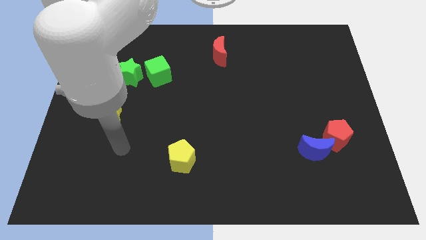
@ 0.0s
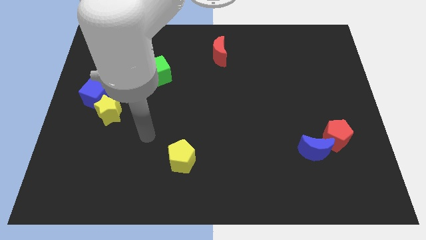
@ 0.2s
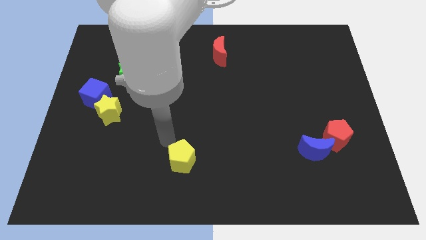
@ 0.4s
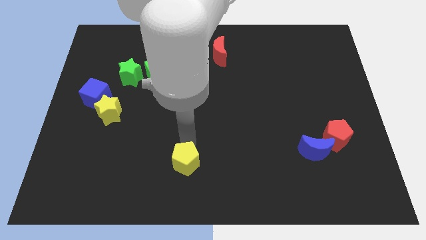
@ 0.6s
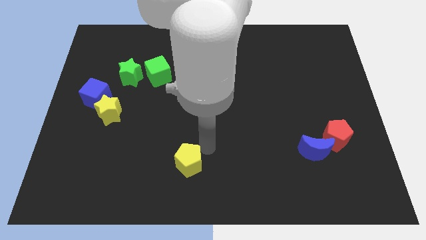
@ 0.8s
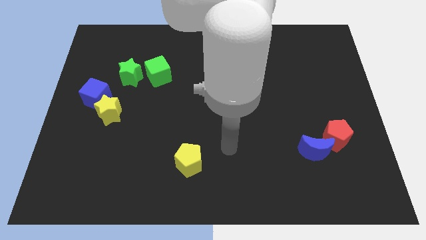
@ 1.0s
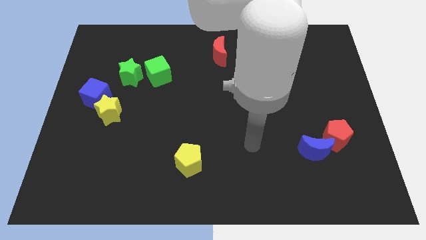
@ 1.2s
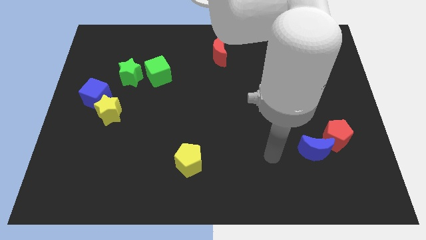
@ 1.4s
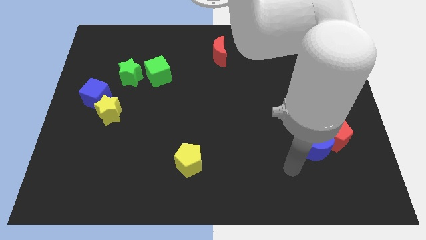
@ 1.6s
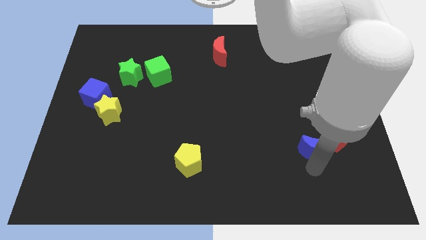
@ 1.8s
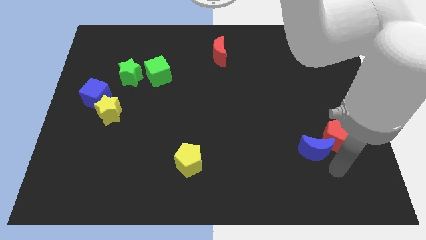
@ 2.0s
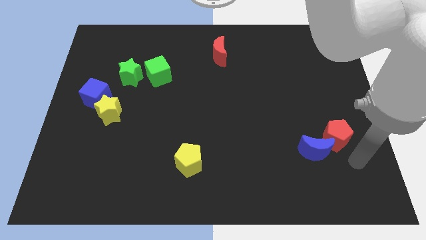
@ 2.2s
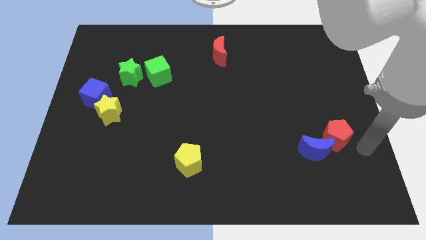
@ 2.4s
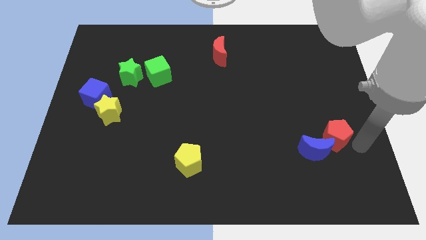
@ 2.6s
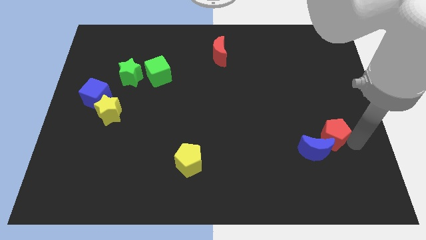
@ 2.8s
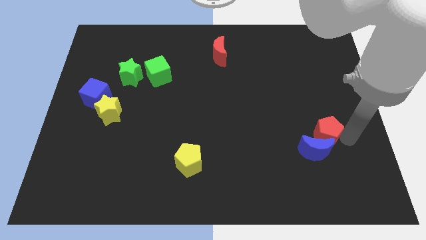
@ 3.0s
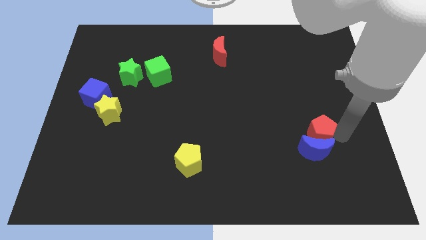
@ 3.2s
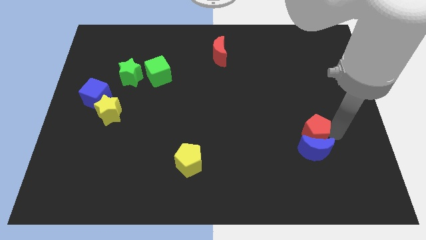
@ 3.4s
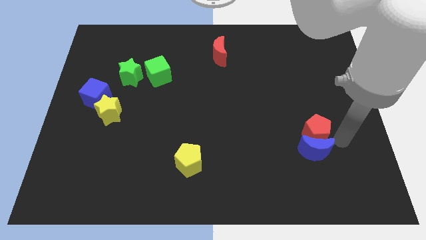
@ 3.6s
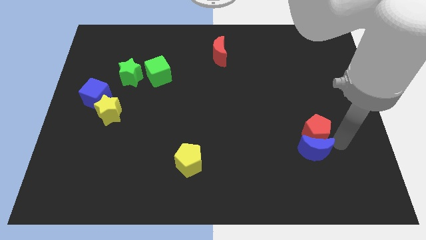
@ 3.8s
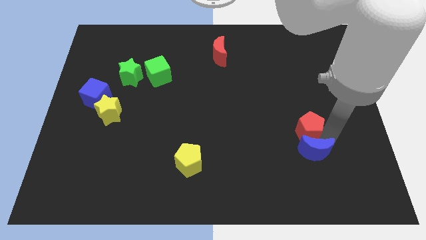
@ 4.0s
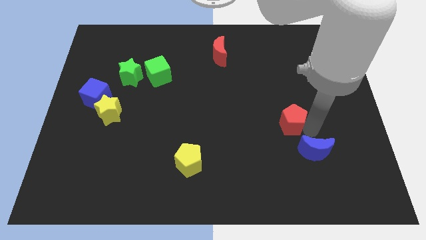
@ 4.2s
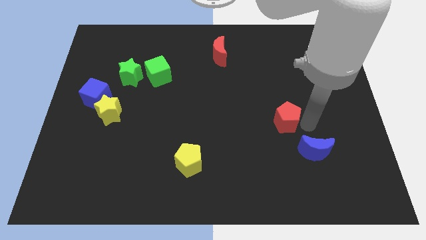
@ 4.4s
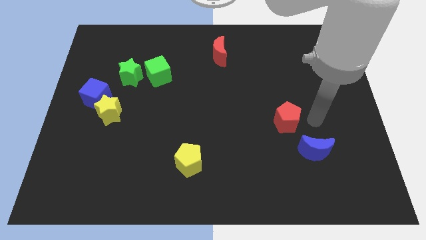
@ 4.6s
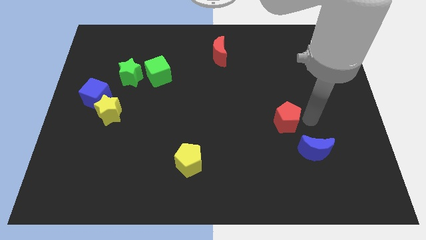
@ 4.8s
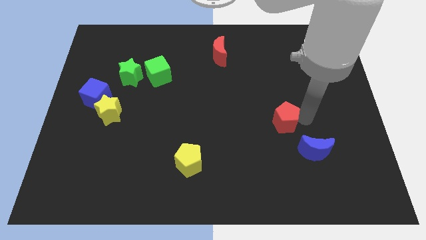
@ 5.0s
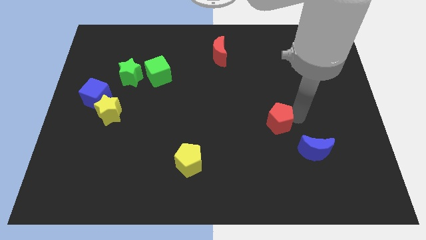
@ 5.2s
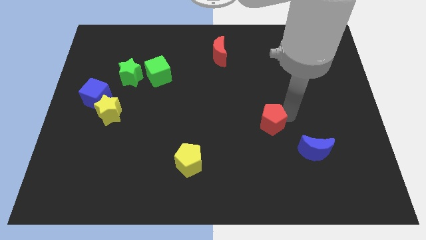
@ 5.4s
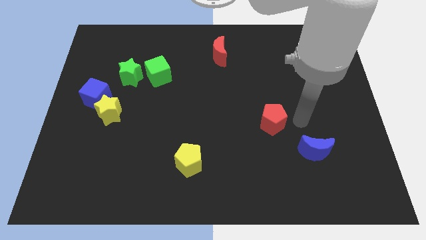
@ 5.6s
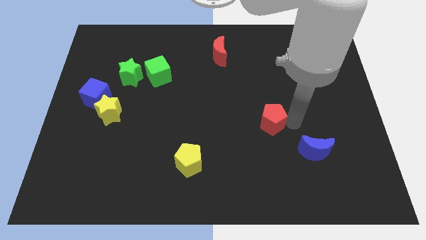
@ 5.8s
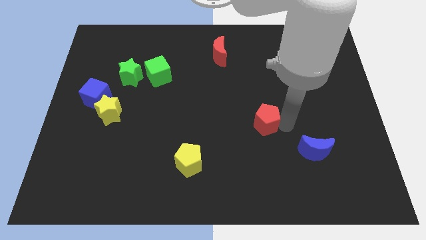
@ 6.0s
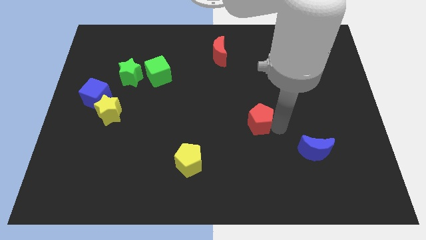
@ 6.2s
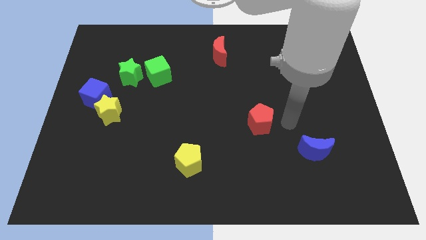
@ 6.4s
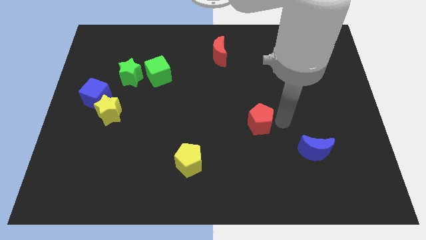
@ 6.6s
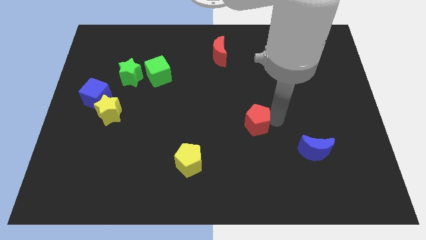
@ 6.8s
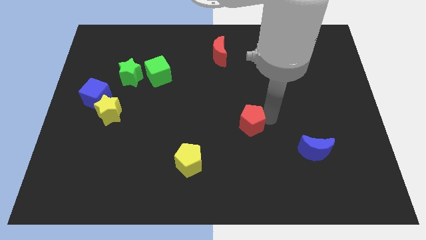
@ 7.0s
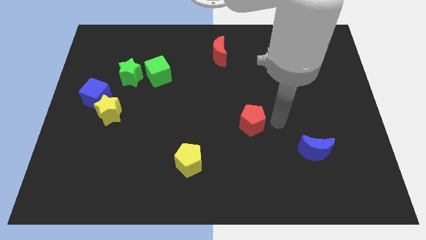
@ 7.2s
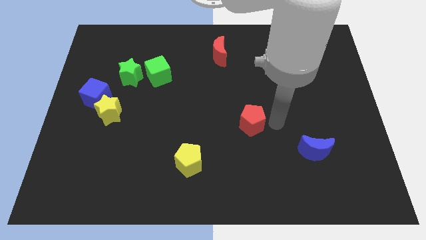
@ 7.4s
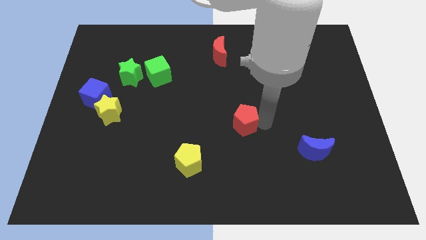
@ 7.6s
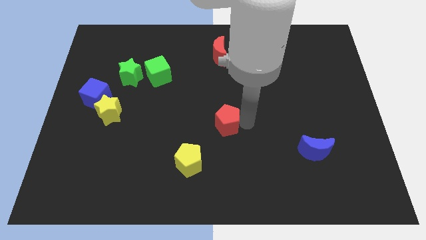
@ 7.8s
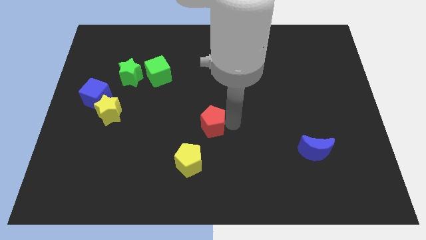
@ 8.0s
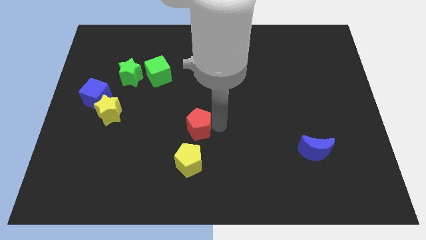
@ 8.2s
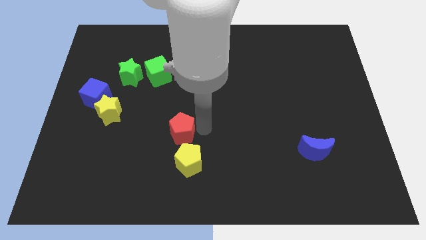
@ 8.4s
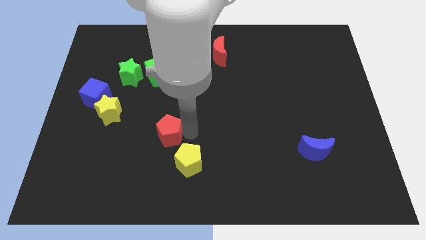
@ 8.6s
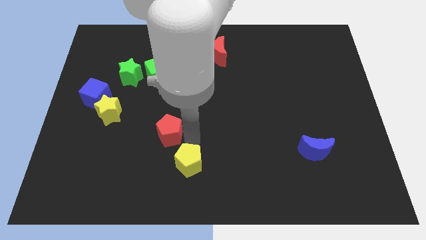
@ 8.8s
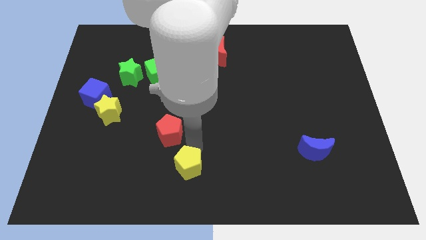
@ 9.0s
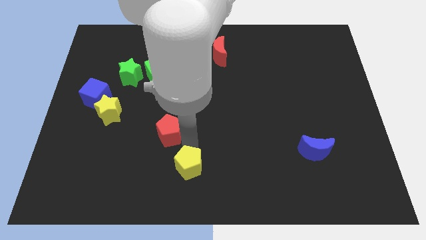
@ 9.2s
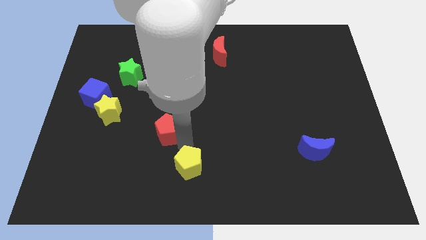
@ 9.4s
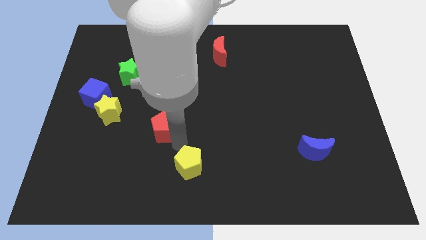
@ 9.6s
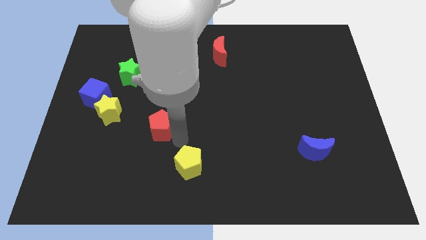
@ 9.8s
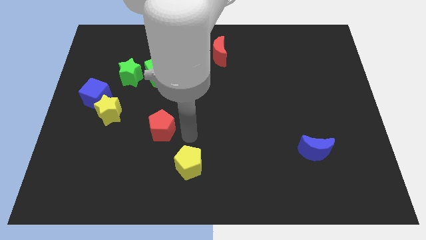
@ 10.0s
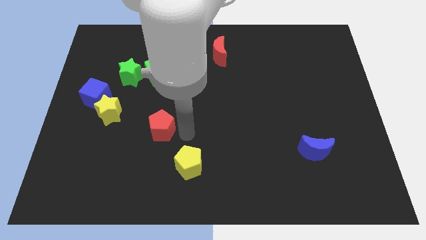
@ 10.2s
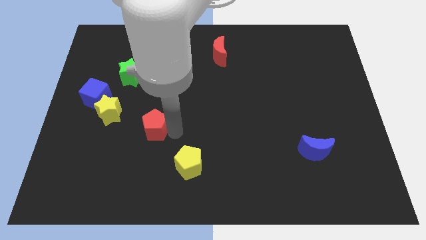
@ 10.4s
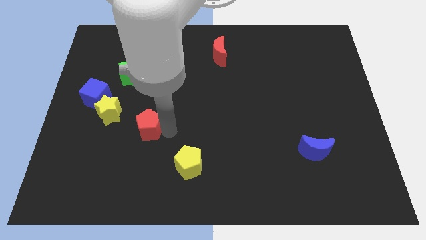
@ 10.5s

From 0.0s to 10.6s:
put the red pentagon to the bottom right side of the yellow star

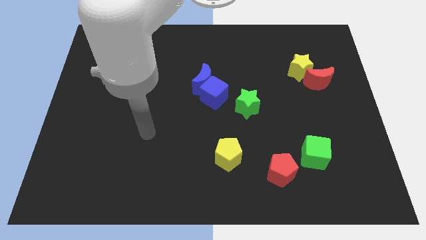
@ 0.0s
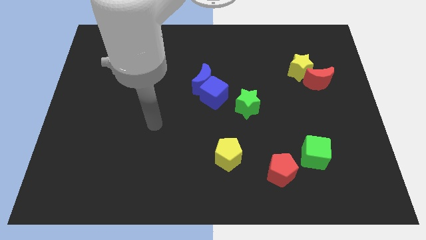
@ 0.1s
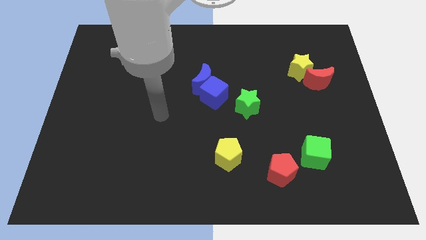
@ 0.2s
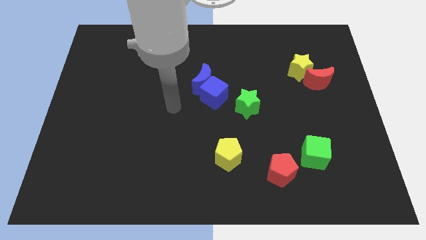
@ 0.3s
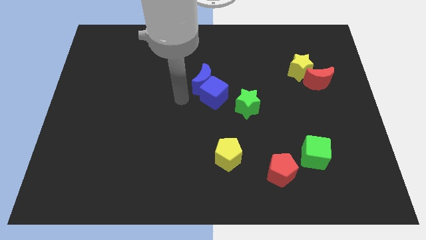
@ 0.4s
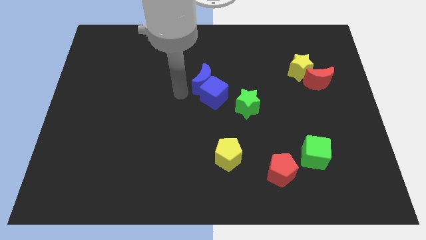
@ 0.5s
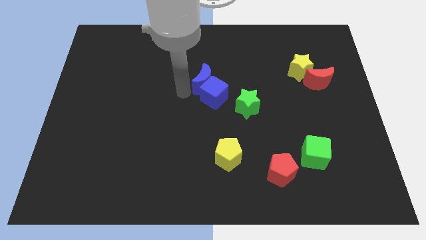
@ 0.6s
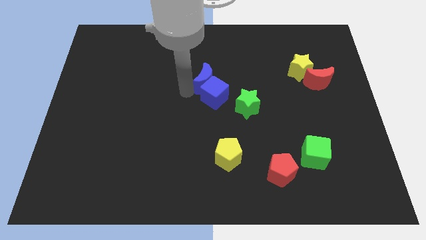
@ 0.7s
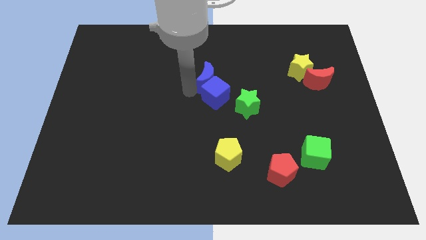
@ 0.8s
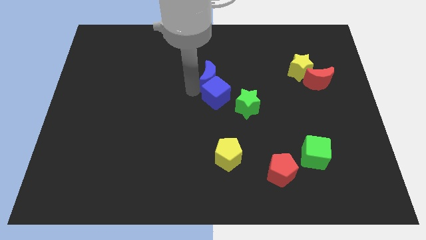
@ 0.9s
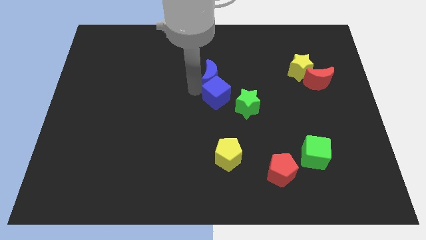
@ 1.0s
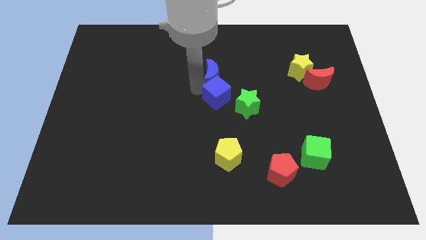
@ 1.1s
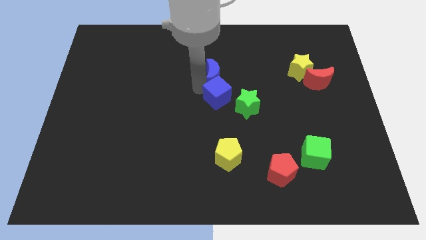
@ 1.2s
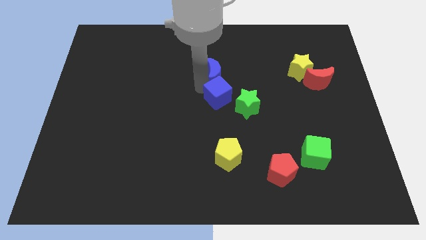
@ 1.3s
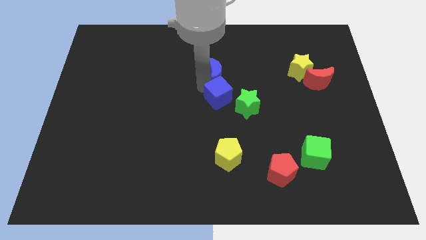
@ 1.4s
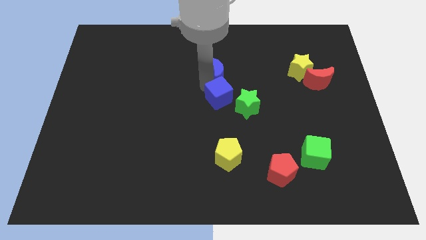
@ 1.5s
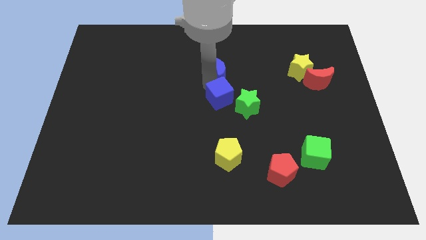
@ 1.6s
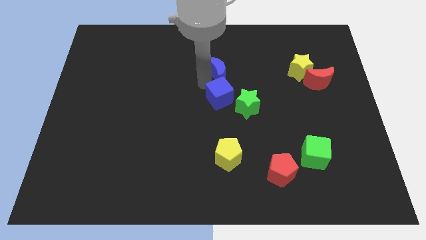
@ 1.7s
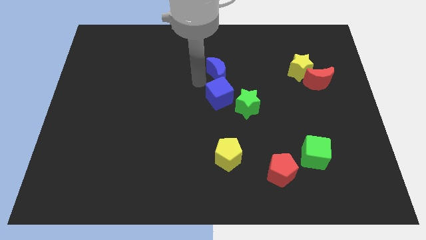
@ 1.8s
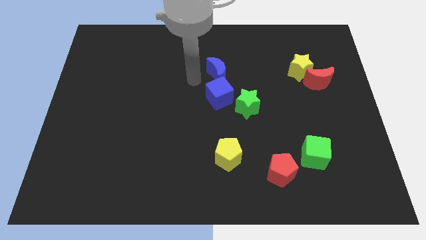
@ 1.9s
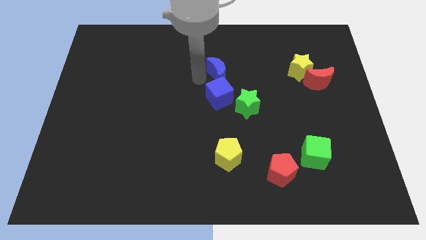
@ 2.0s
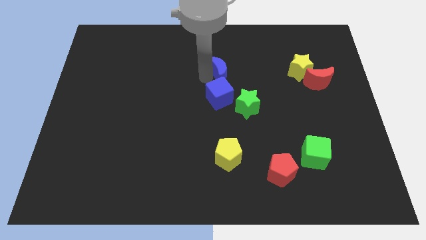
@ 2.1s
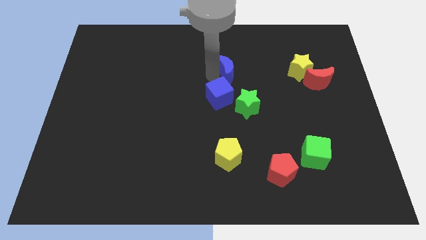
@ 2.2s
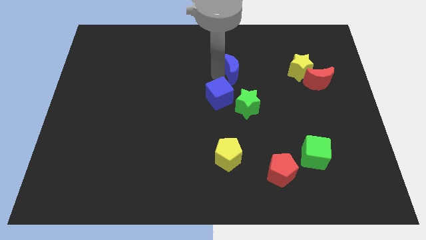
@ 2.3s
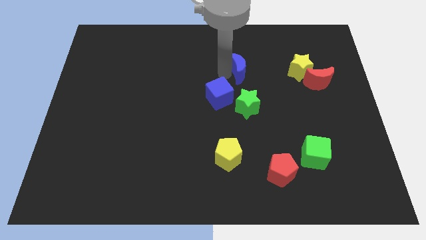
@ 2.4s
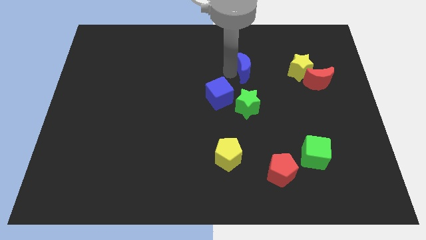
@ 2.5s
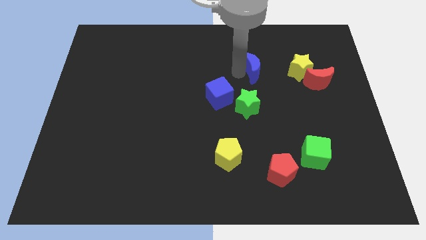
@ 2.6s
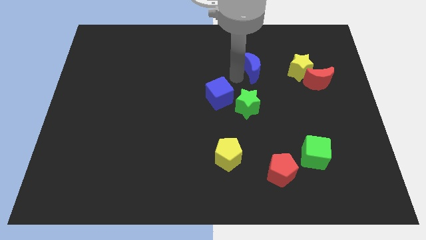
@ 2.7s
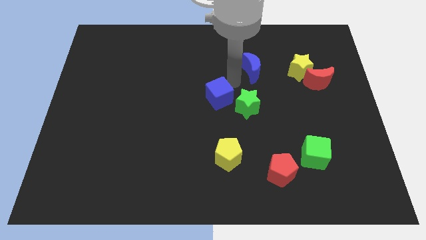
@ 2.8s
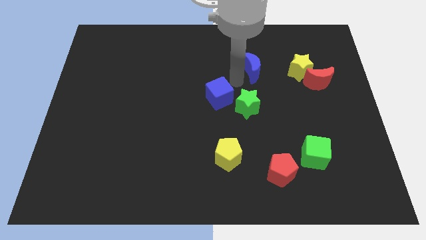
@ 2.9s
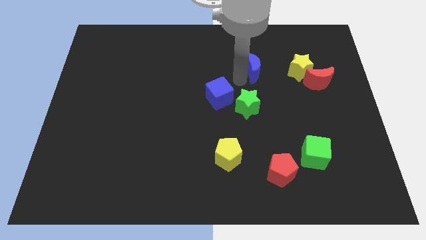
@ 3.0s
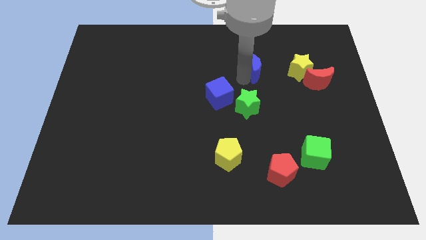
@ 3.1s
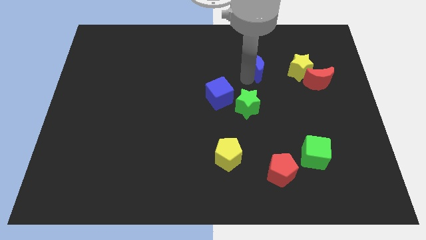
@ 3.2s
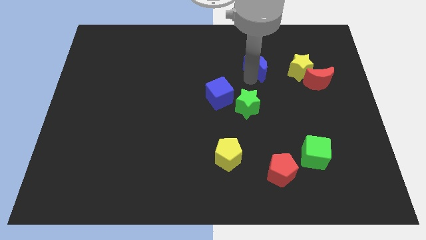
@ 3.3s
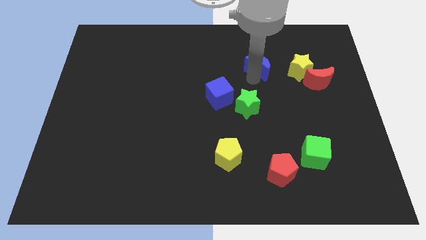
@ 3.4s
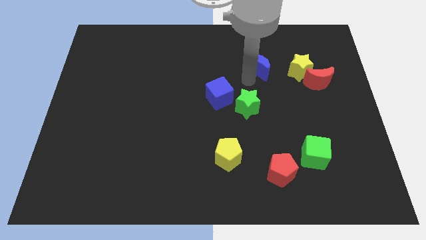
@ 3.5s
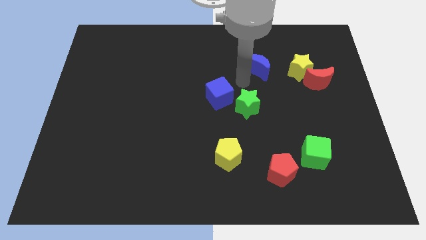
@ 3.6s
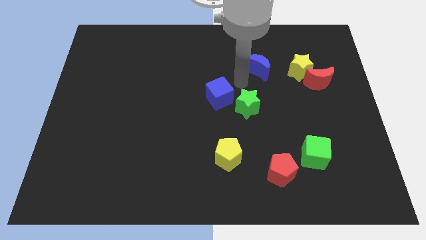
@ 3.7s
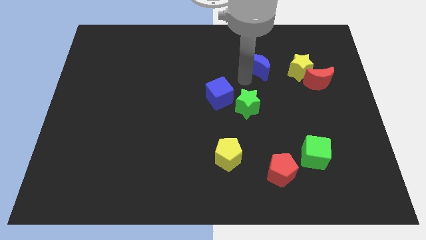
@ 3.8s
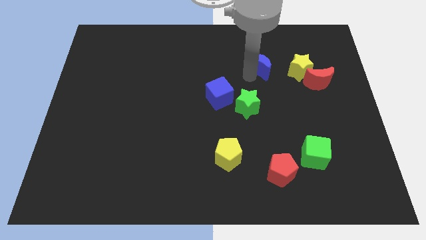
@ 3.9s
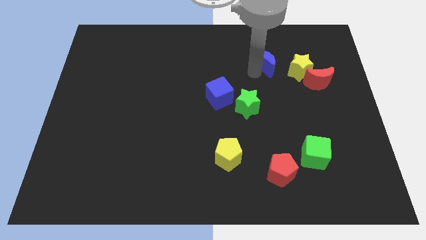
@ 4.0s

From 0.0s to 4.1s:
move the blue moon diagonally up and to the left of the yellow star
